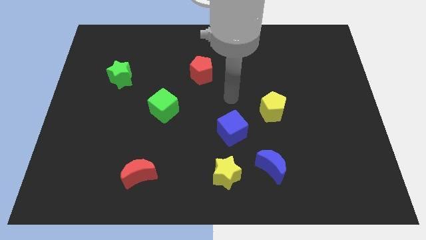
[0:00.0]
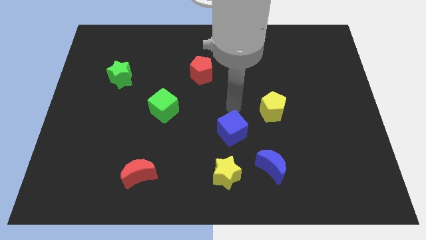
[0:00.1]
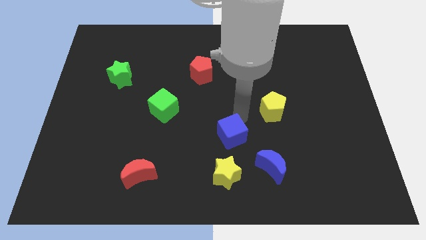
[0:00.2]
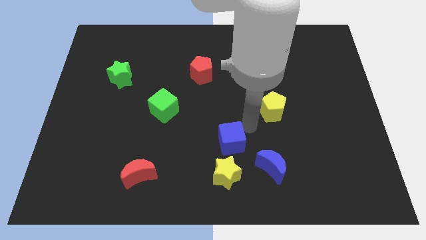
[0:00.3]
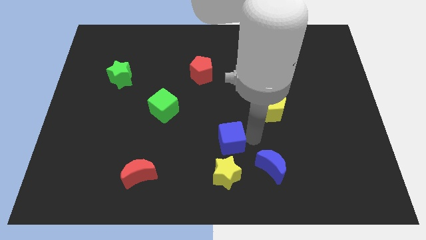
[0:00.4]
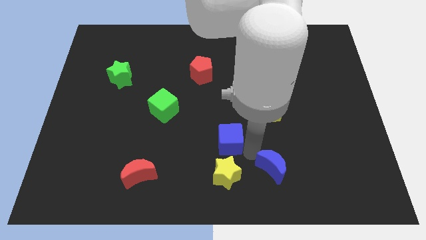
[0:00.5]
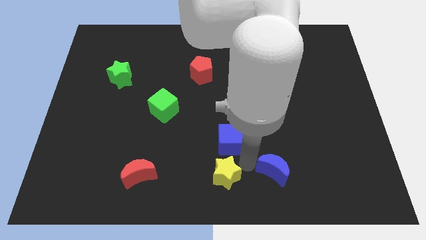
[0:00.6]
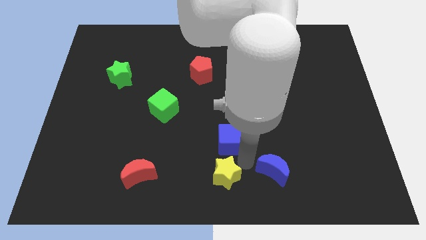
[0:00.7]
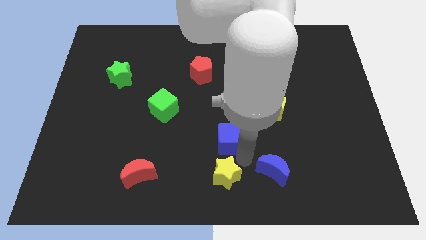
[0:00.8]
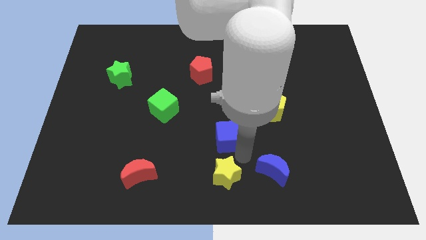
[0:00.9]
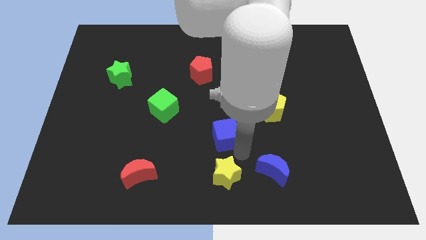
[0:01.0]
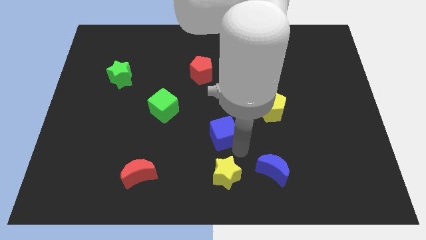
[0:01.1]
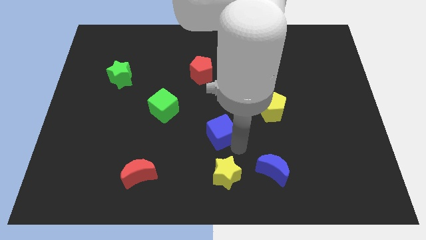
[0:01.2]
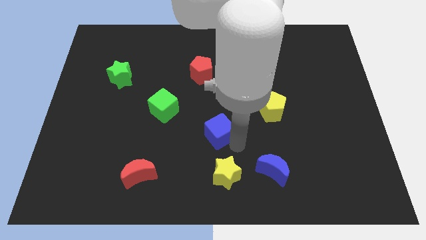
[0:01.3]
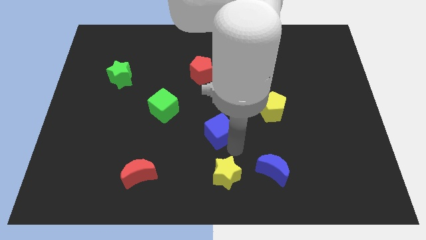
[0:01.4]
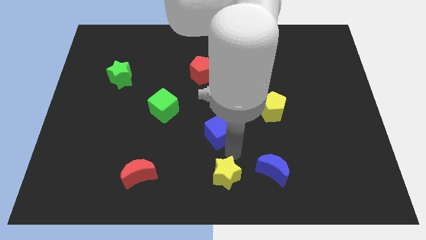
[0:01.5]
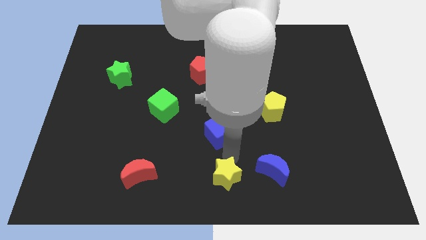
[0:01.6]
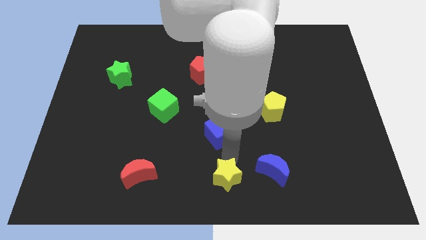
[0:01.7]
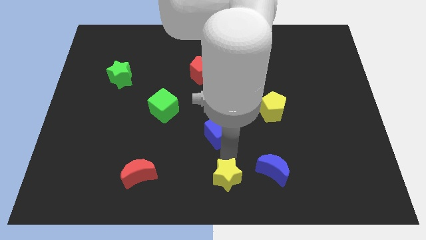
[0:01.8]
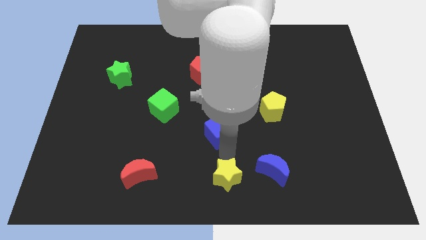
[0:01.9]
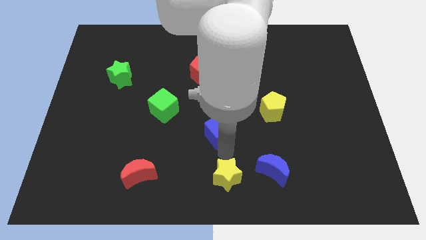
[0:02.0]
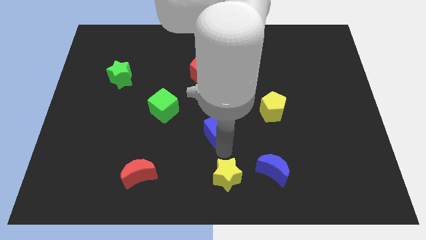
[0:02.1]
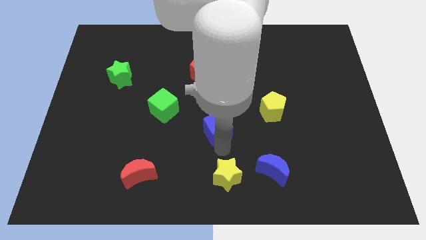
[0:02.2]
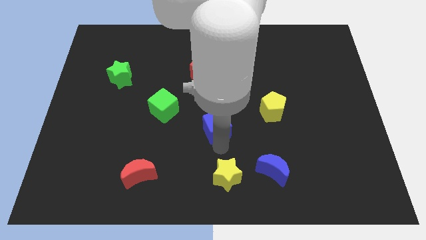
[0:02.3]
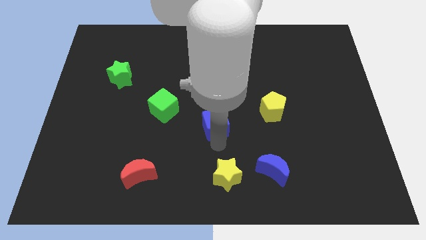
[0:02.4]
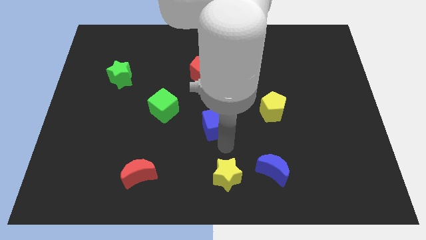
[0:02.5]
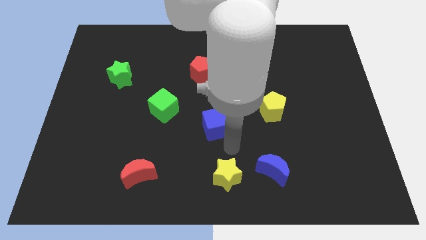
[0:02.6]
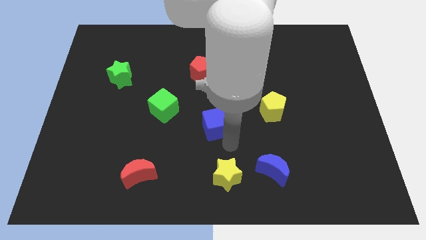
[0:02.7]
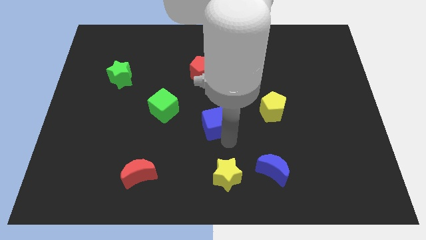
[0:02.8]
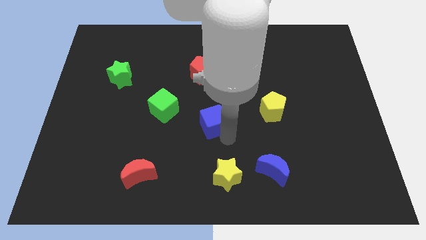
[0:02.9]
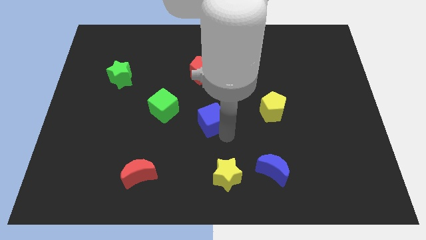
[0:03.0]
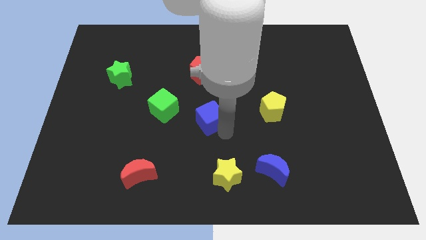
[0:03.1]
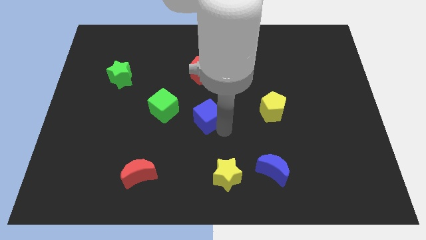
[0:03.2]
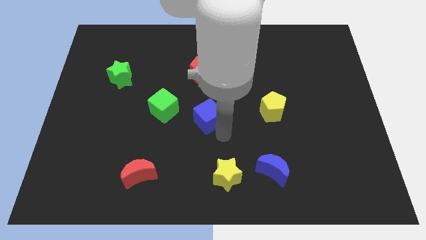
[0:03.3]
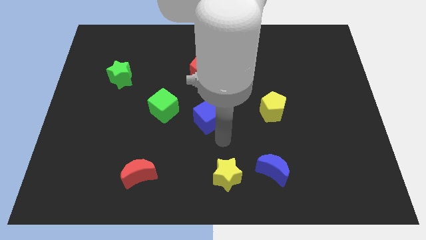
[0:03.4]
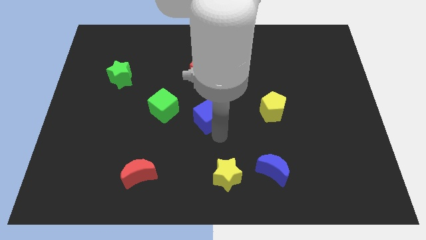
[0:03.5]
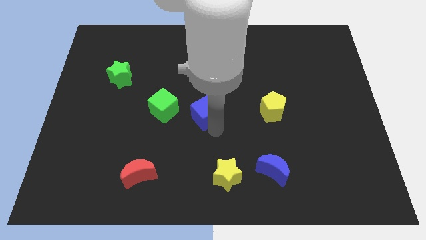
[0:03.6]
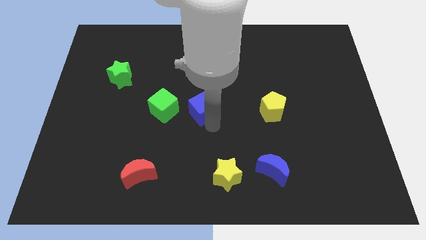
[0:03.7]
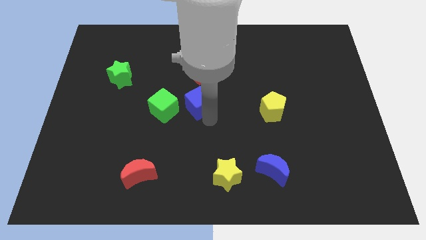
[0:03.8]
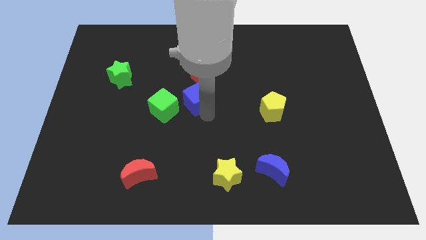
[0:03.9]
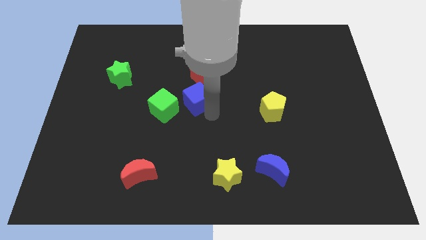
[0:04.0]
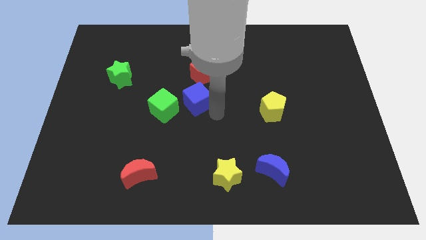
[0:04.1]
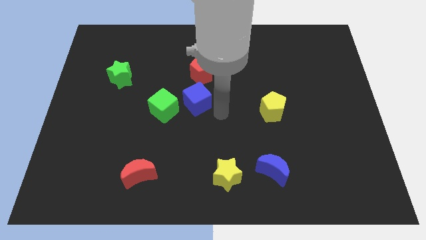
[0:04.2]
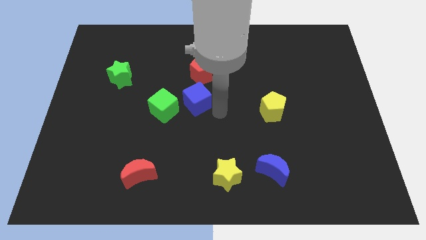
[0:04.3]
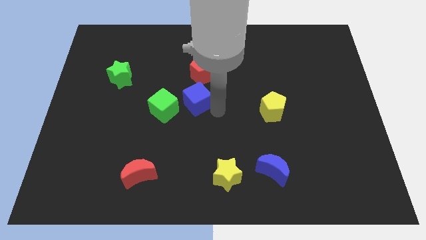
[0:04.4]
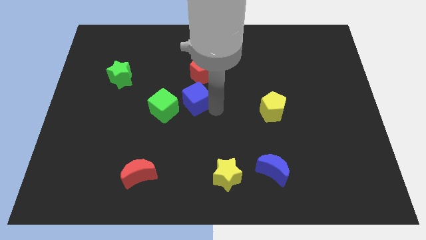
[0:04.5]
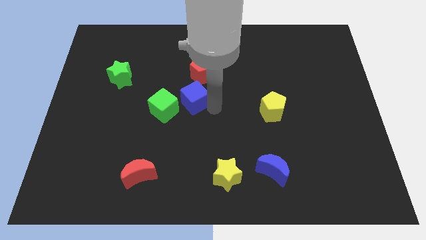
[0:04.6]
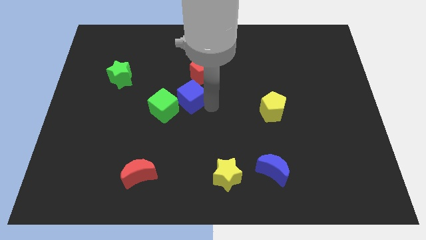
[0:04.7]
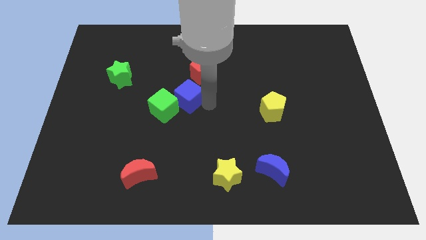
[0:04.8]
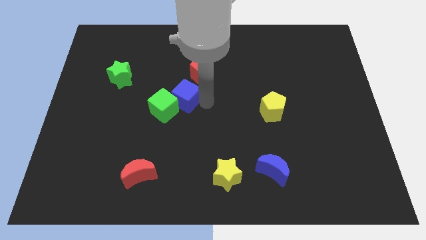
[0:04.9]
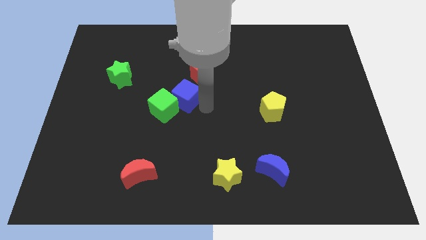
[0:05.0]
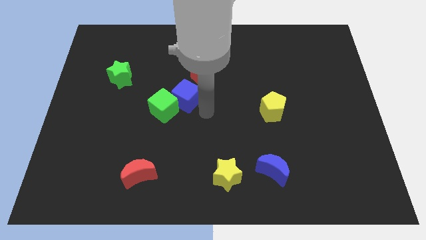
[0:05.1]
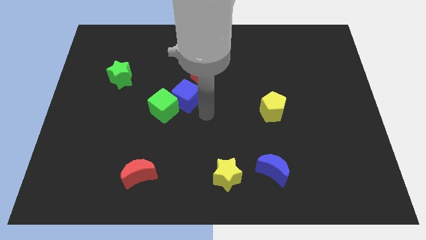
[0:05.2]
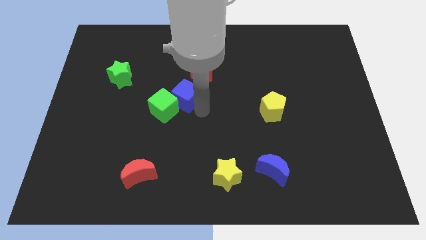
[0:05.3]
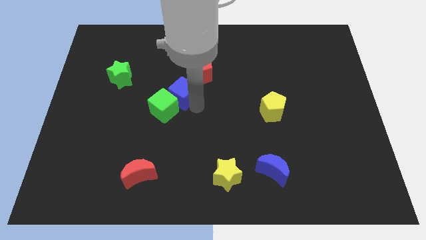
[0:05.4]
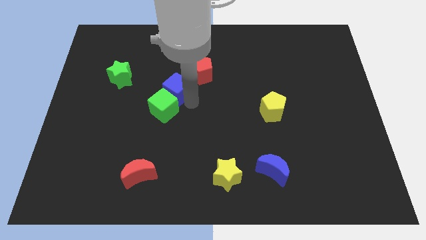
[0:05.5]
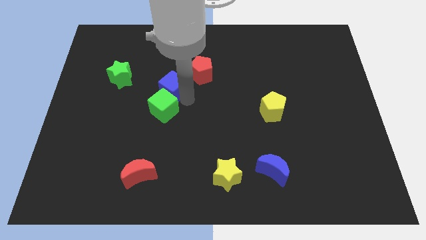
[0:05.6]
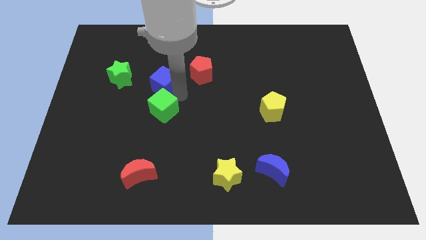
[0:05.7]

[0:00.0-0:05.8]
move the blue cube diagonally up and to the left

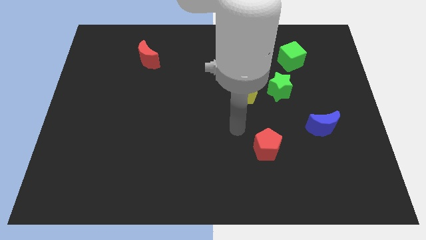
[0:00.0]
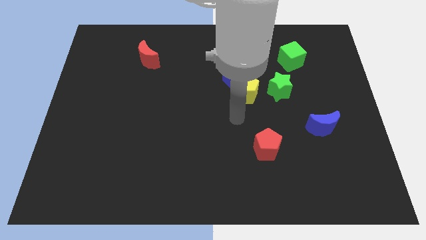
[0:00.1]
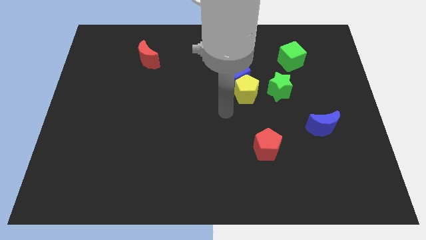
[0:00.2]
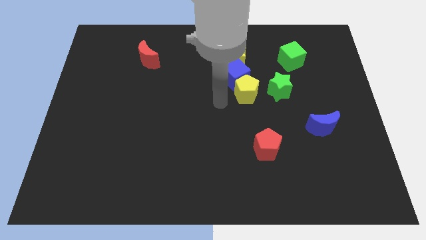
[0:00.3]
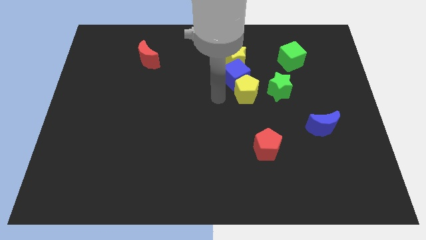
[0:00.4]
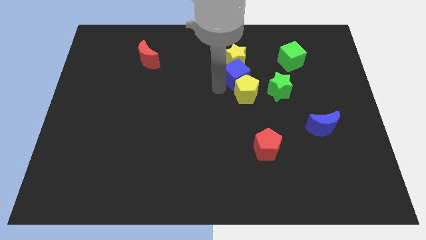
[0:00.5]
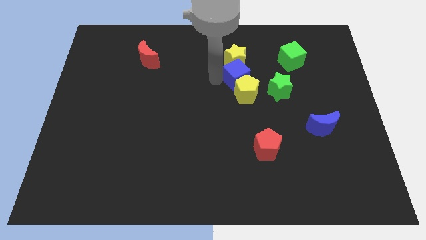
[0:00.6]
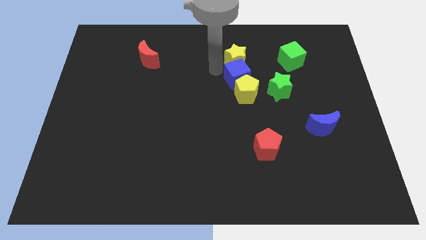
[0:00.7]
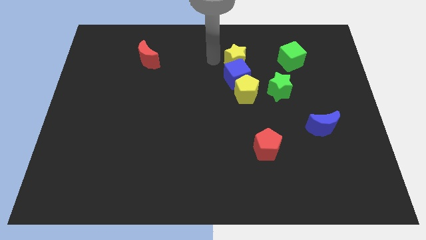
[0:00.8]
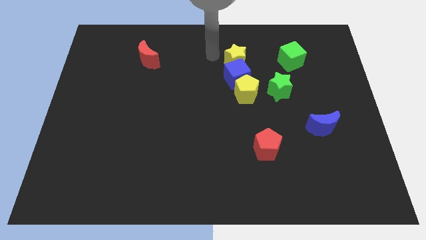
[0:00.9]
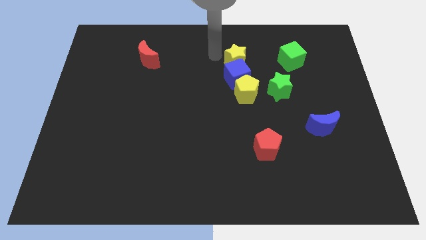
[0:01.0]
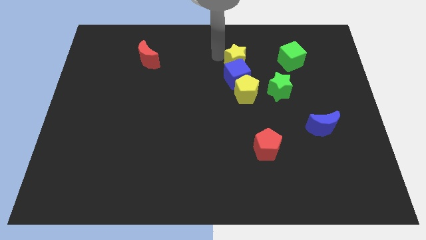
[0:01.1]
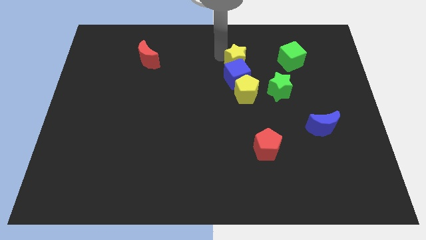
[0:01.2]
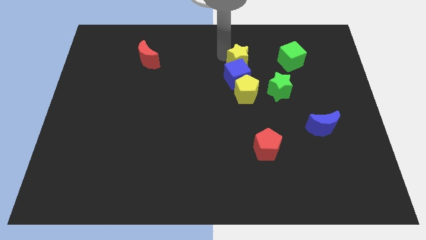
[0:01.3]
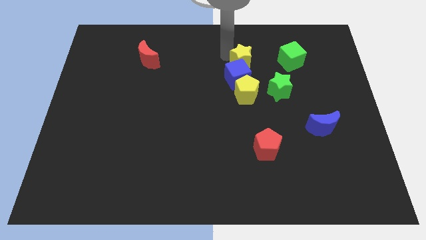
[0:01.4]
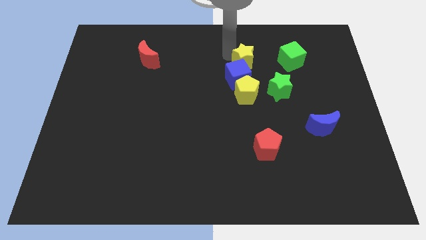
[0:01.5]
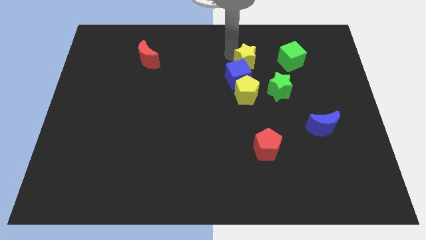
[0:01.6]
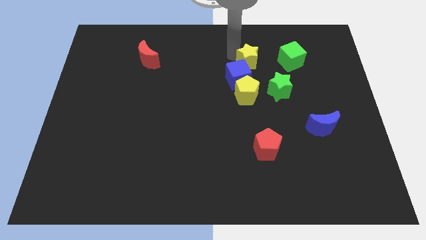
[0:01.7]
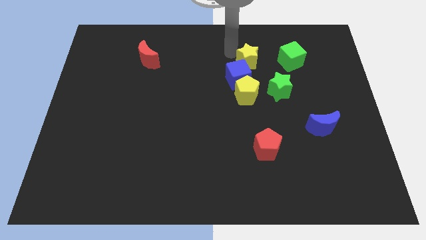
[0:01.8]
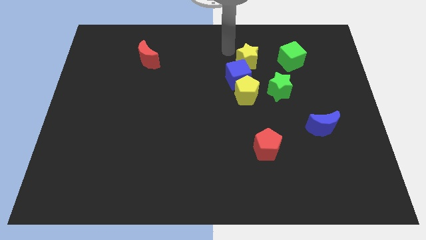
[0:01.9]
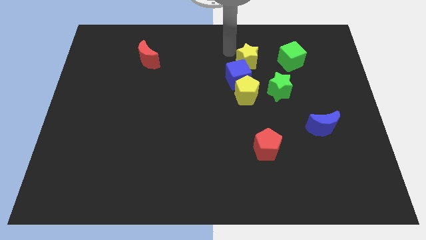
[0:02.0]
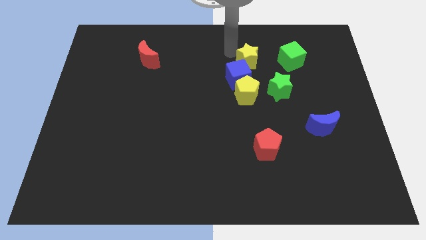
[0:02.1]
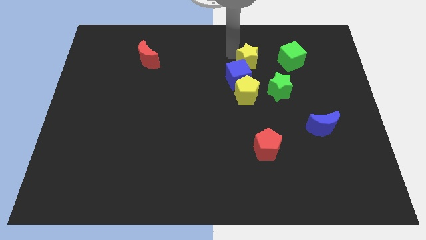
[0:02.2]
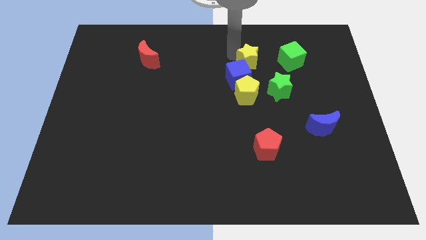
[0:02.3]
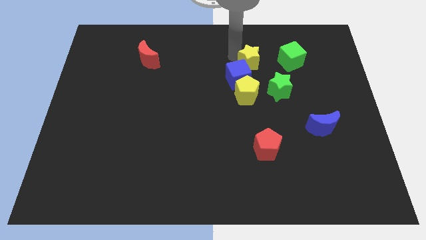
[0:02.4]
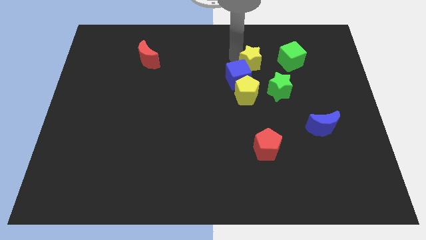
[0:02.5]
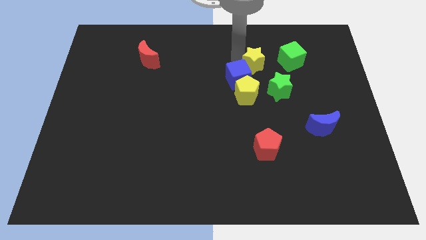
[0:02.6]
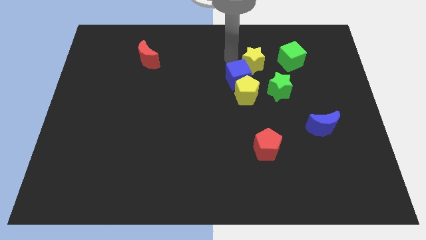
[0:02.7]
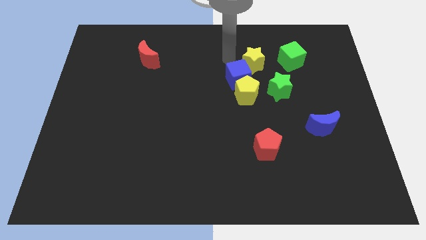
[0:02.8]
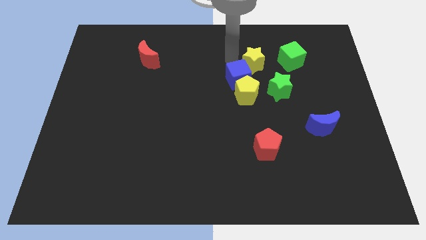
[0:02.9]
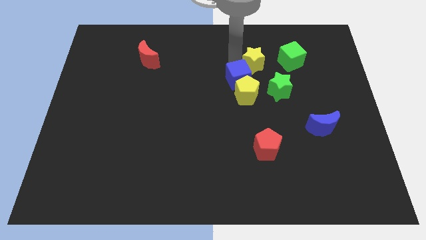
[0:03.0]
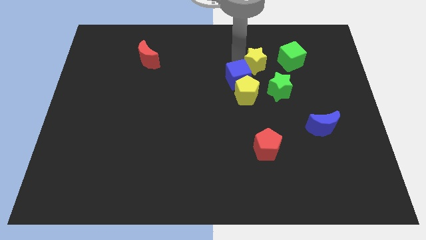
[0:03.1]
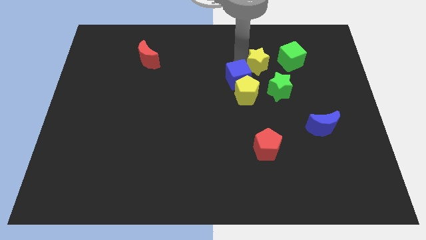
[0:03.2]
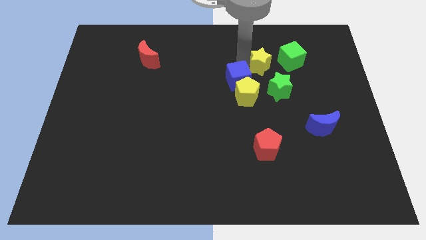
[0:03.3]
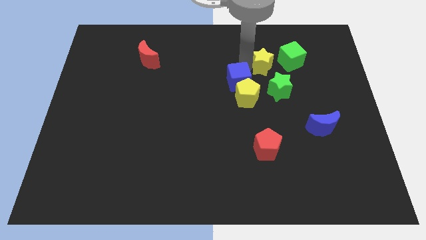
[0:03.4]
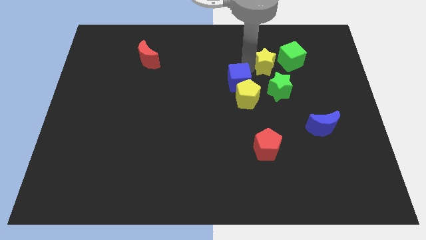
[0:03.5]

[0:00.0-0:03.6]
slightly slide the yellow star right
